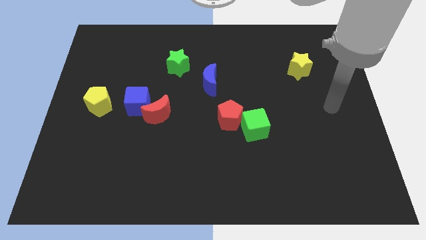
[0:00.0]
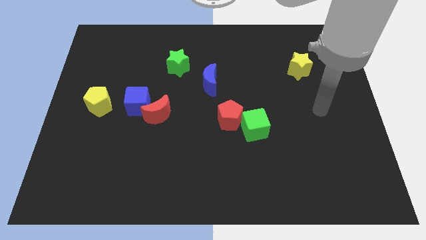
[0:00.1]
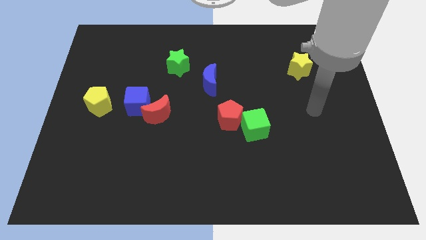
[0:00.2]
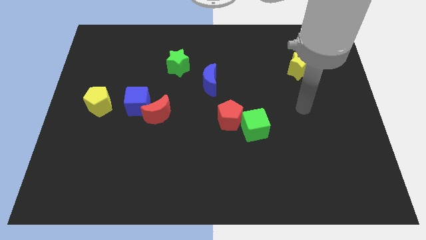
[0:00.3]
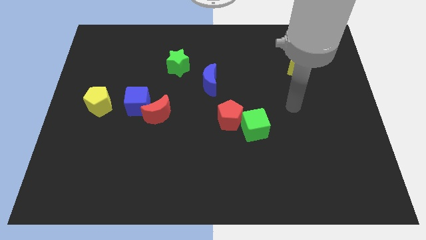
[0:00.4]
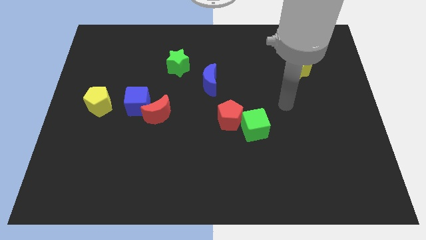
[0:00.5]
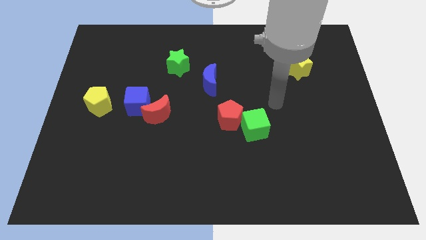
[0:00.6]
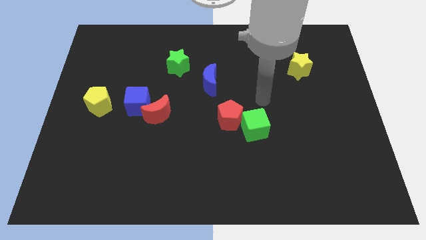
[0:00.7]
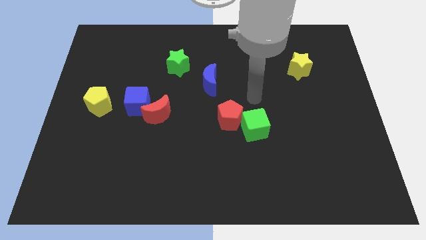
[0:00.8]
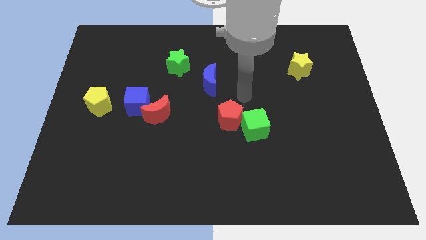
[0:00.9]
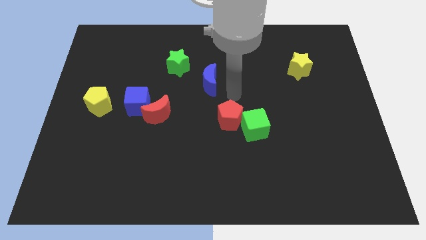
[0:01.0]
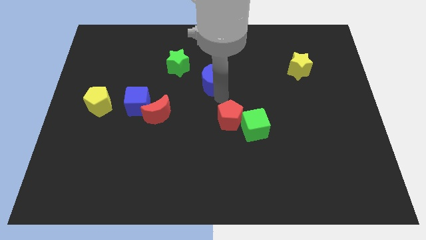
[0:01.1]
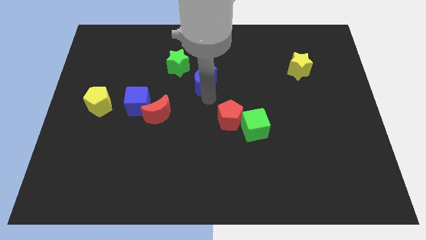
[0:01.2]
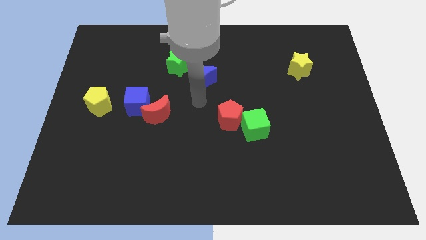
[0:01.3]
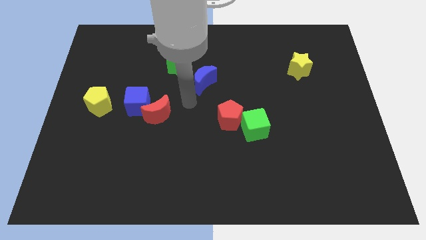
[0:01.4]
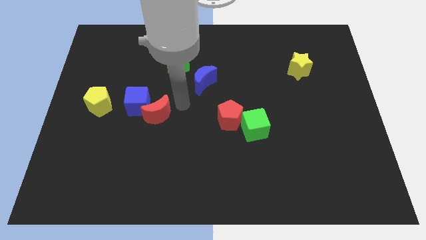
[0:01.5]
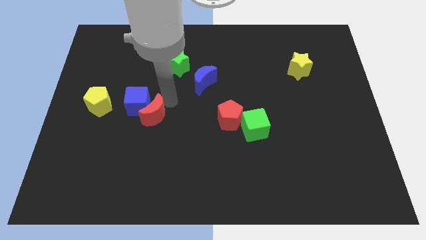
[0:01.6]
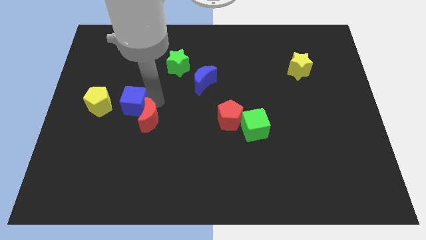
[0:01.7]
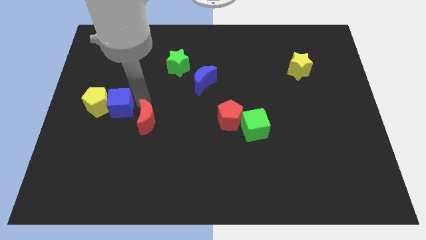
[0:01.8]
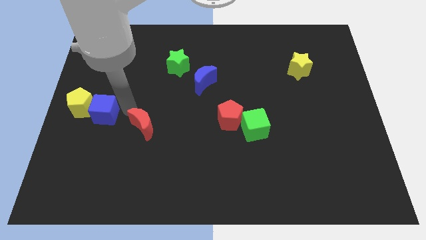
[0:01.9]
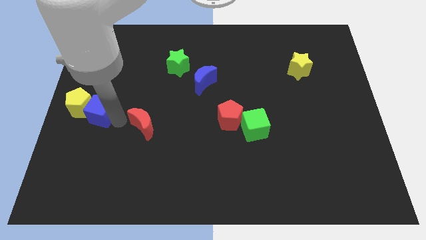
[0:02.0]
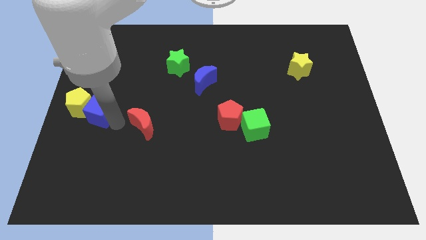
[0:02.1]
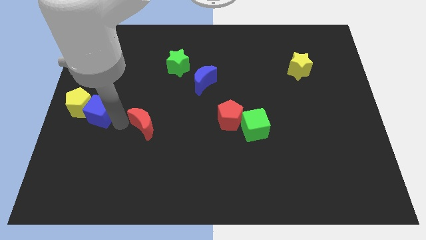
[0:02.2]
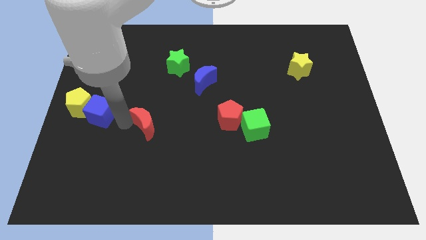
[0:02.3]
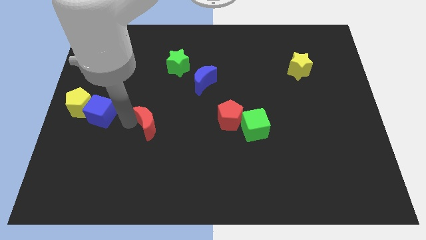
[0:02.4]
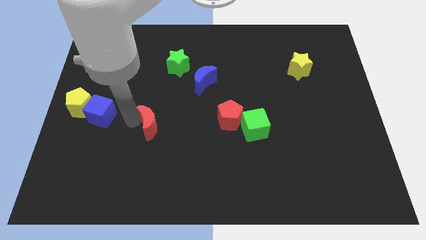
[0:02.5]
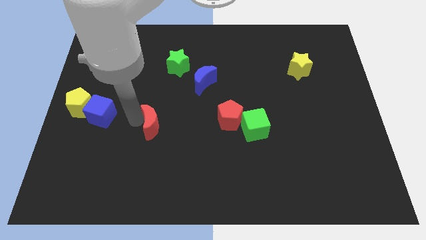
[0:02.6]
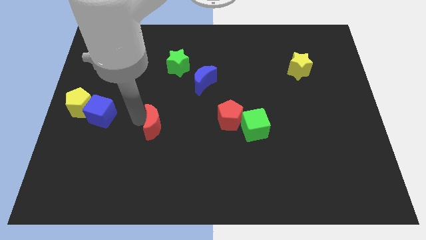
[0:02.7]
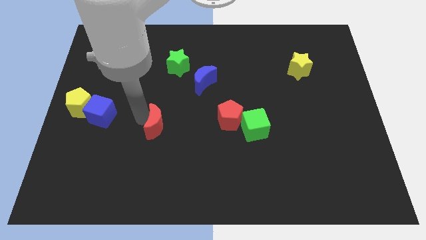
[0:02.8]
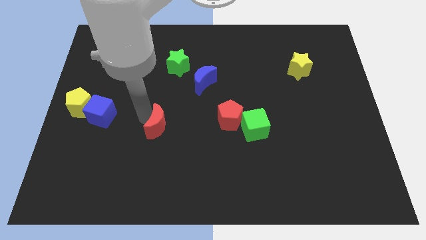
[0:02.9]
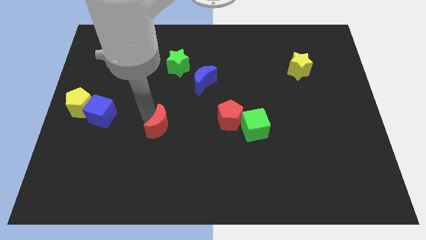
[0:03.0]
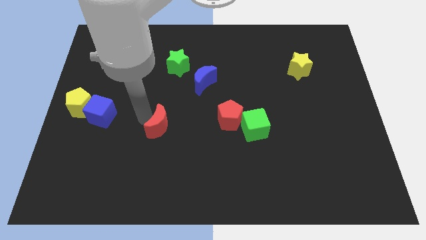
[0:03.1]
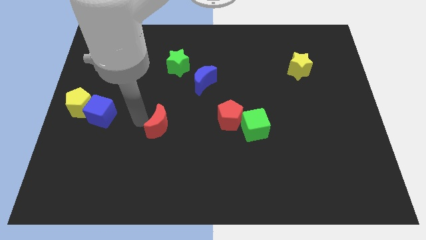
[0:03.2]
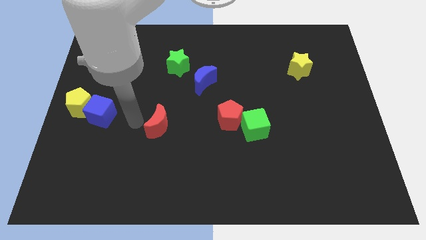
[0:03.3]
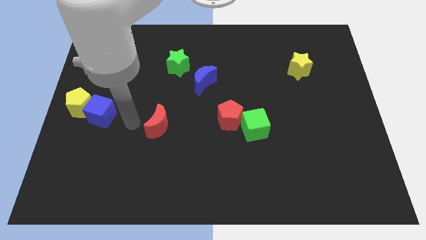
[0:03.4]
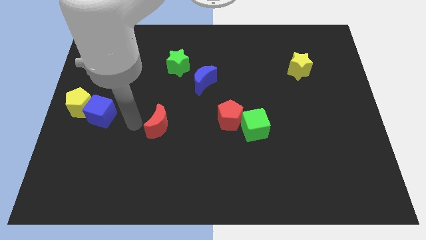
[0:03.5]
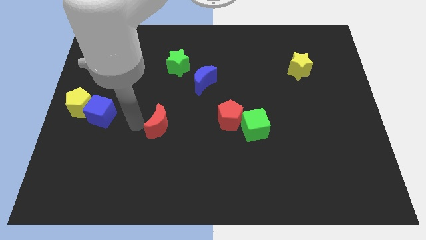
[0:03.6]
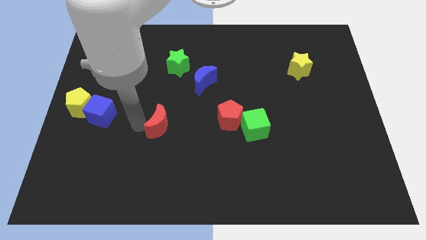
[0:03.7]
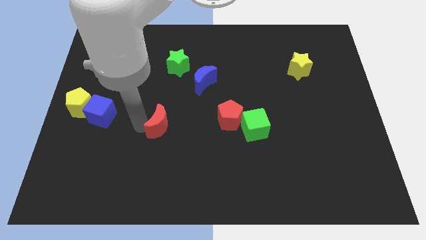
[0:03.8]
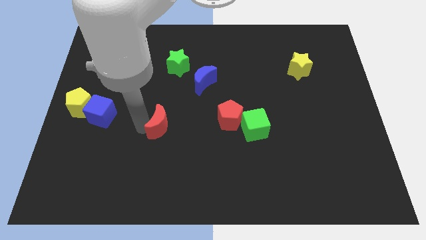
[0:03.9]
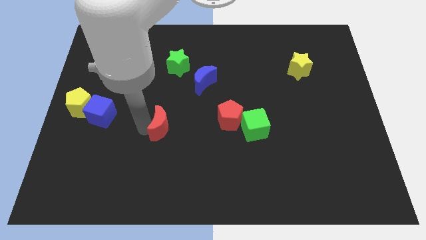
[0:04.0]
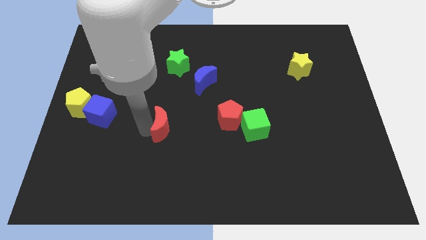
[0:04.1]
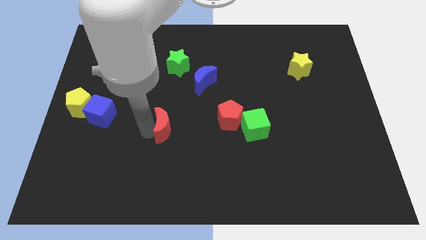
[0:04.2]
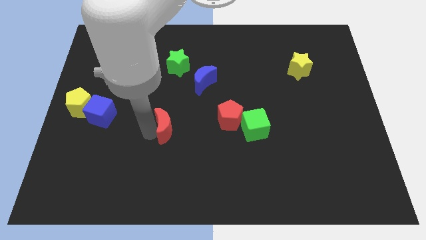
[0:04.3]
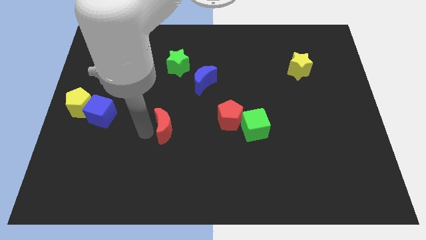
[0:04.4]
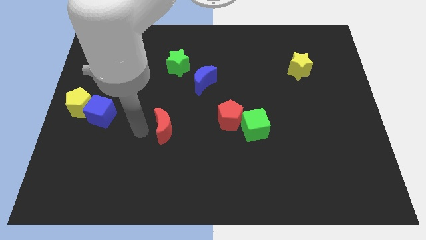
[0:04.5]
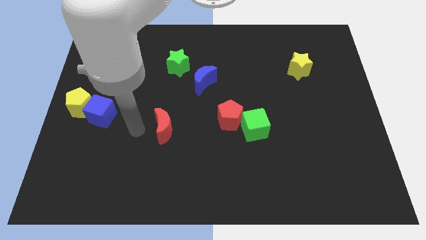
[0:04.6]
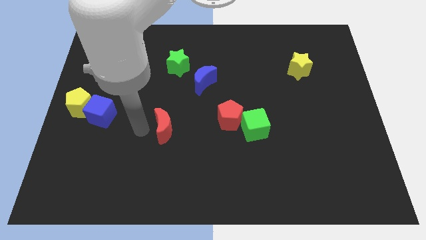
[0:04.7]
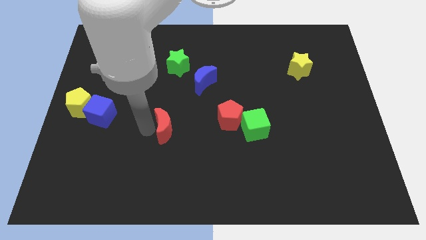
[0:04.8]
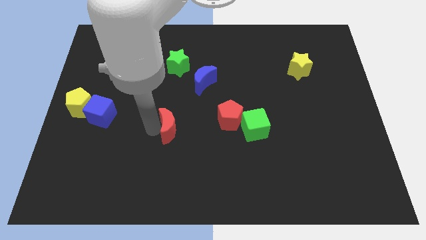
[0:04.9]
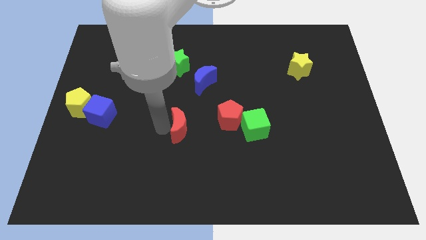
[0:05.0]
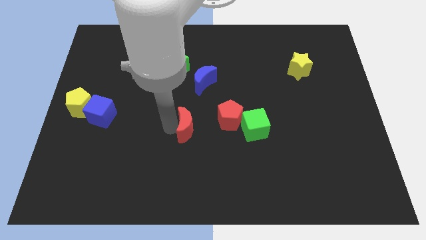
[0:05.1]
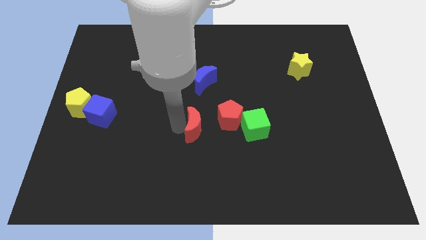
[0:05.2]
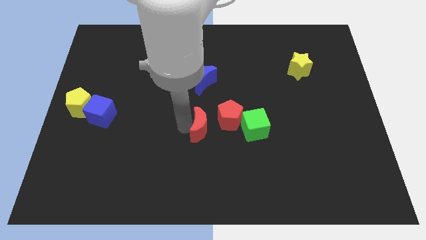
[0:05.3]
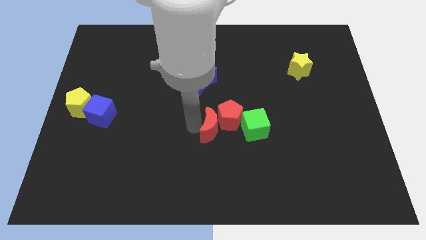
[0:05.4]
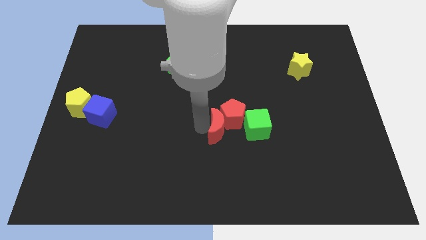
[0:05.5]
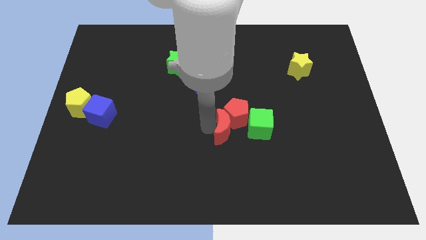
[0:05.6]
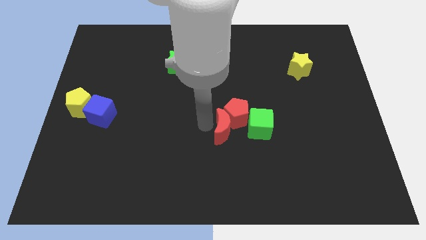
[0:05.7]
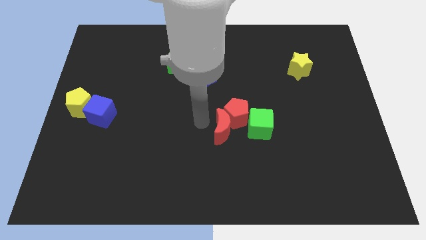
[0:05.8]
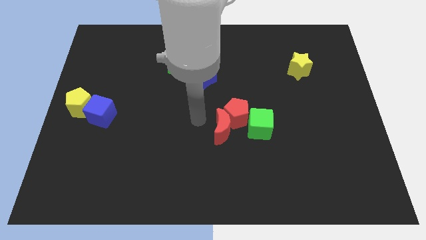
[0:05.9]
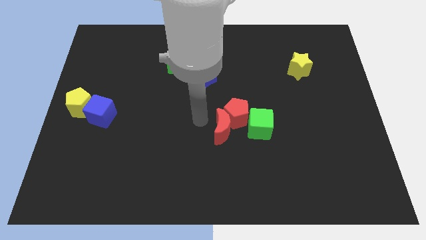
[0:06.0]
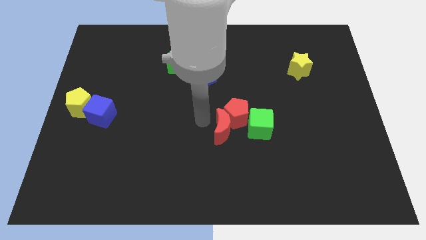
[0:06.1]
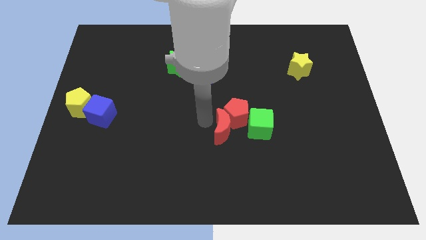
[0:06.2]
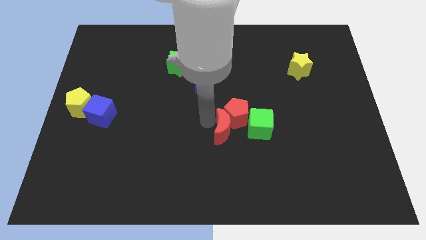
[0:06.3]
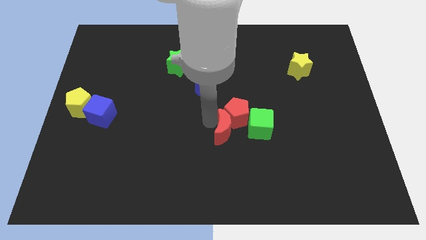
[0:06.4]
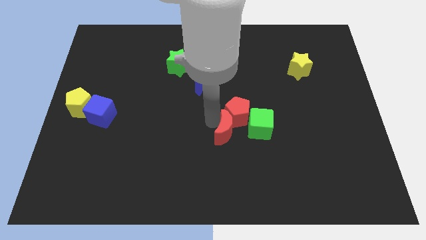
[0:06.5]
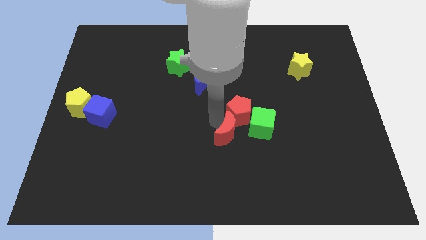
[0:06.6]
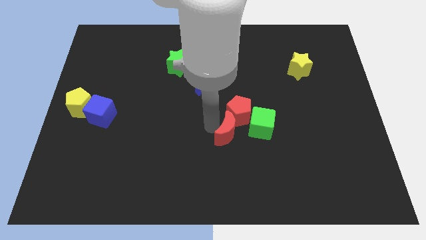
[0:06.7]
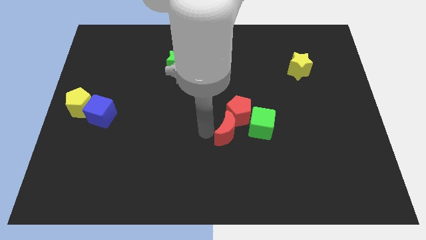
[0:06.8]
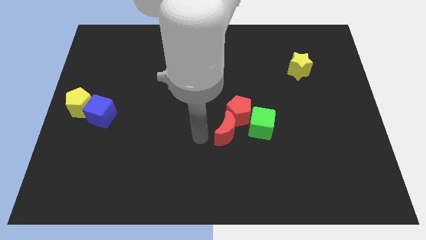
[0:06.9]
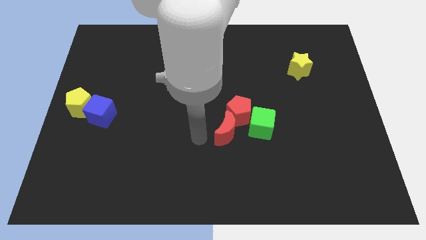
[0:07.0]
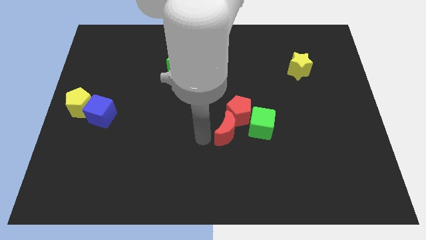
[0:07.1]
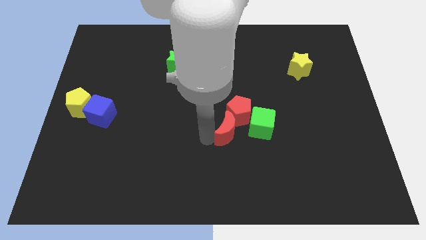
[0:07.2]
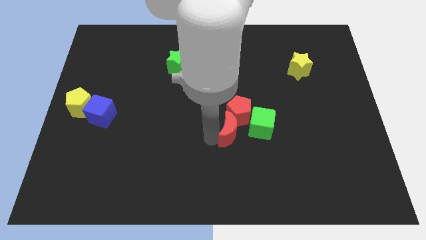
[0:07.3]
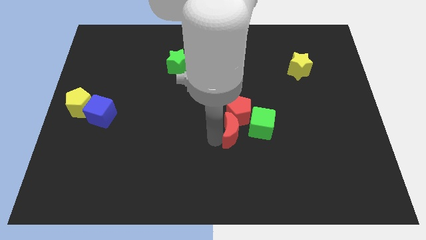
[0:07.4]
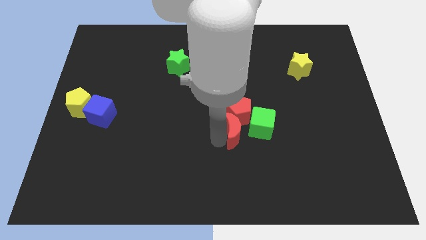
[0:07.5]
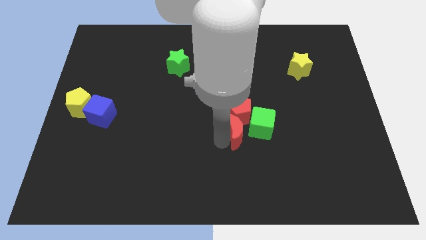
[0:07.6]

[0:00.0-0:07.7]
push the red moon close to the green cube
